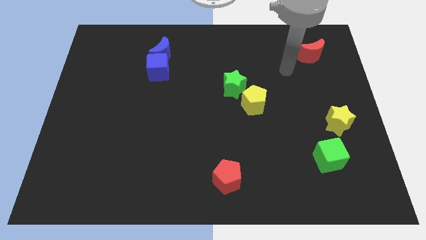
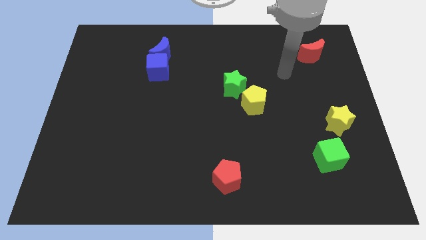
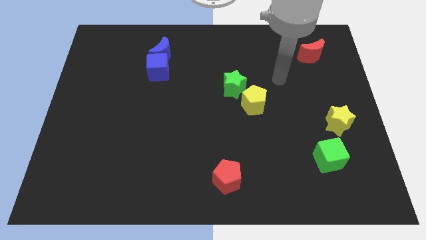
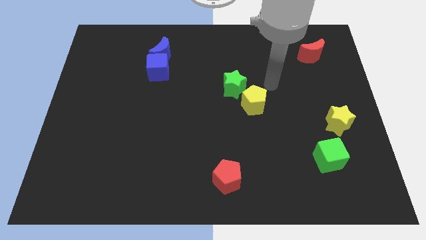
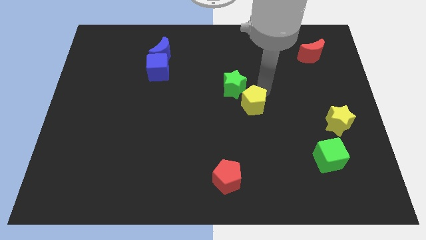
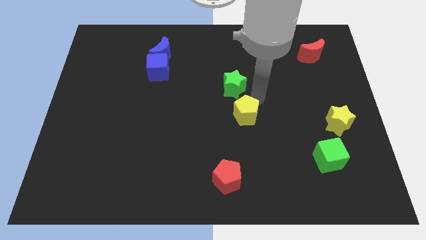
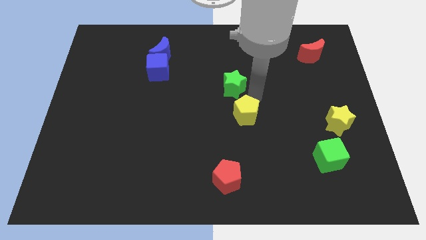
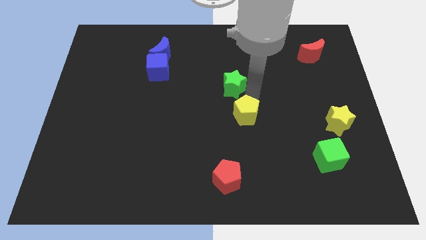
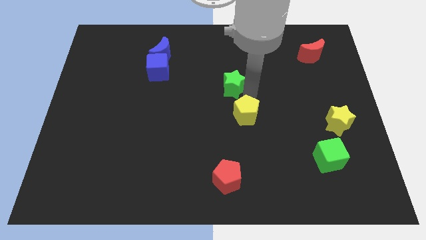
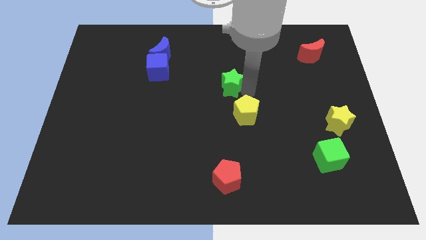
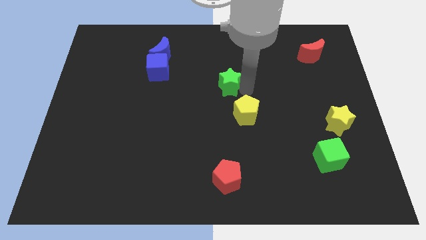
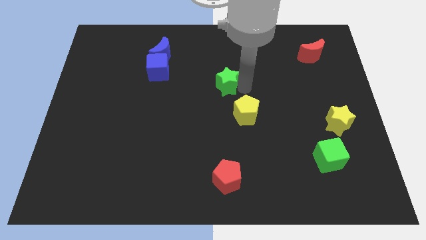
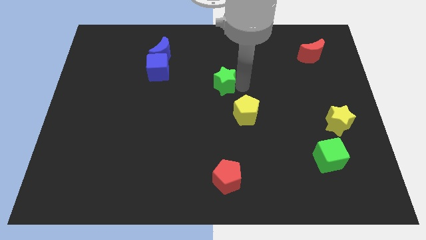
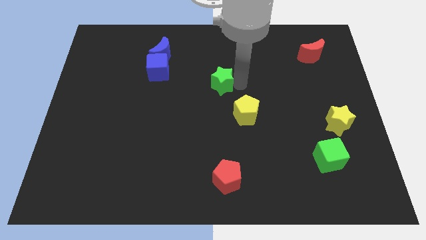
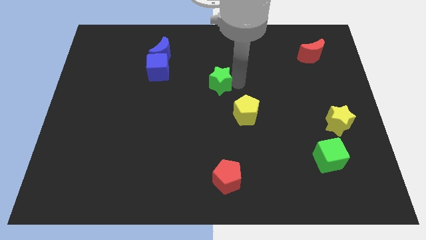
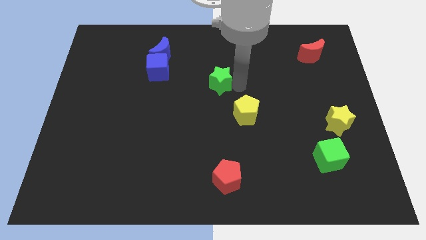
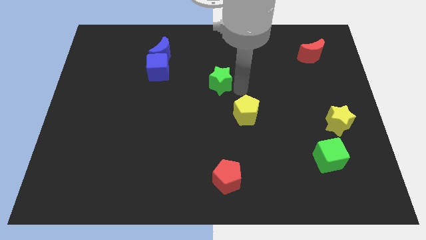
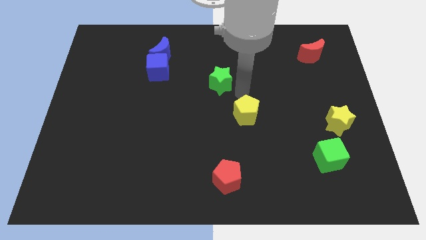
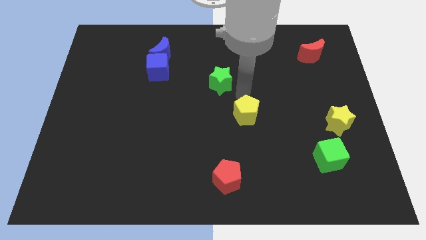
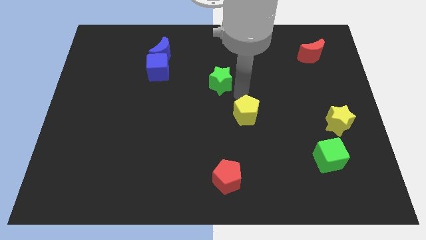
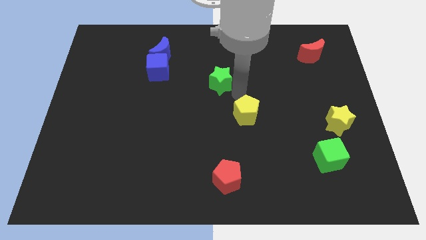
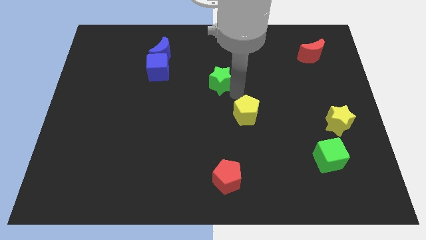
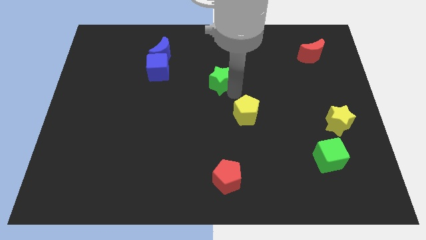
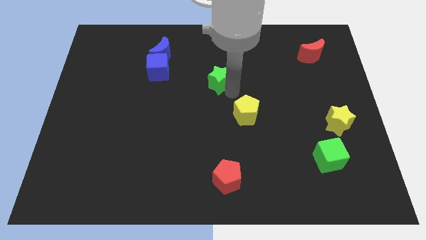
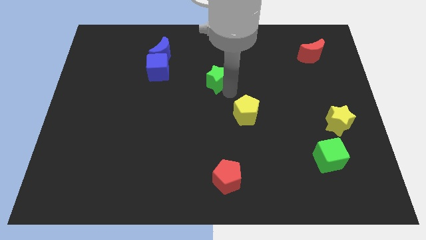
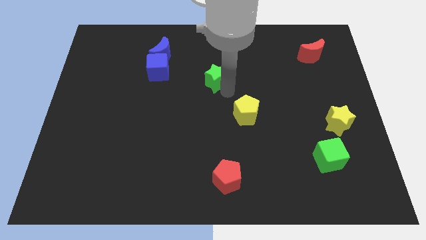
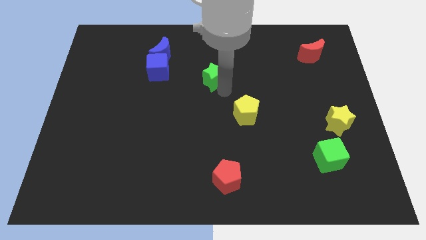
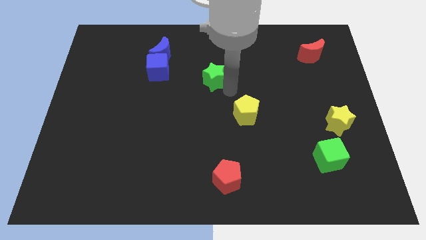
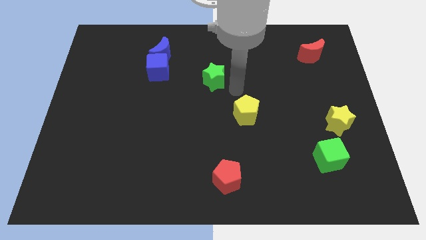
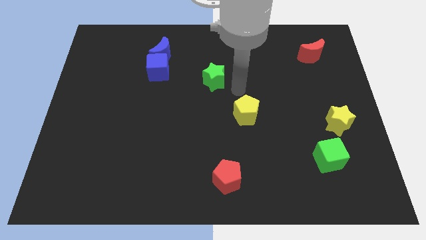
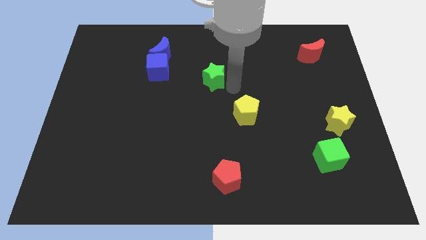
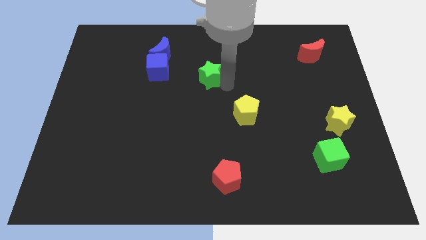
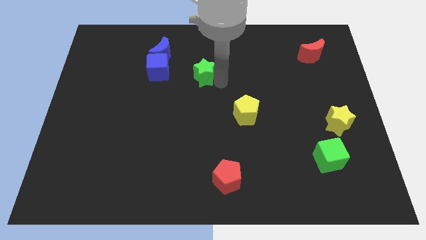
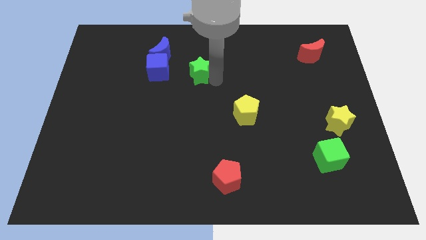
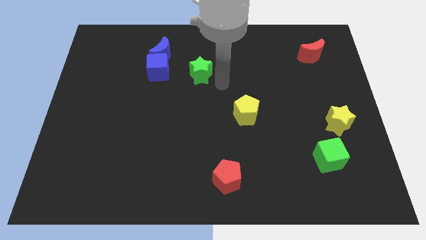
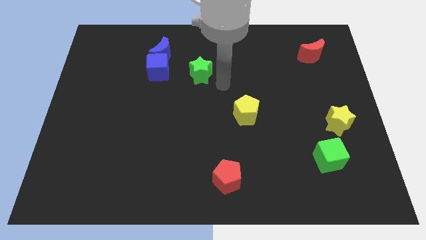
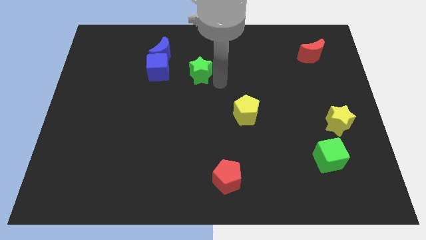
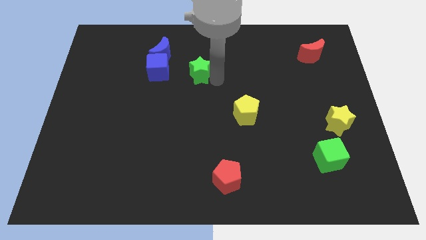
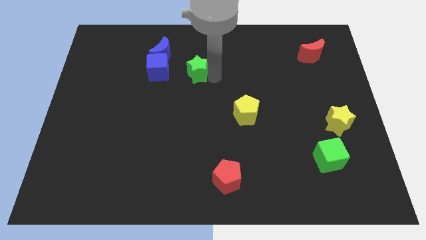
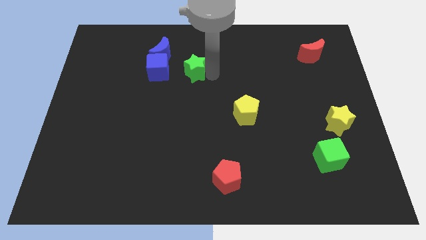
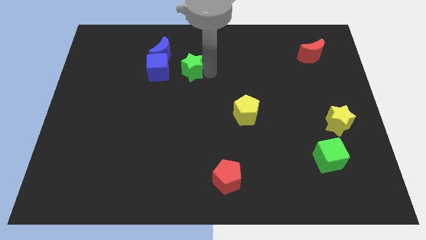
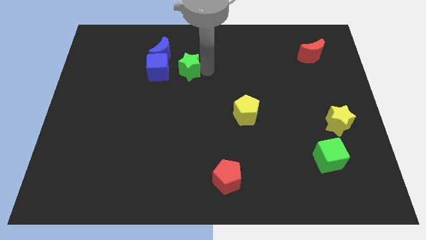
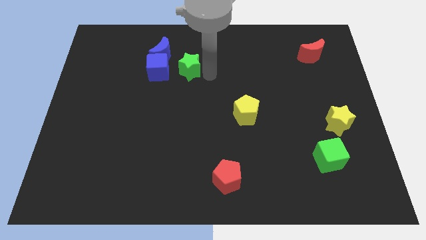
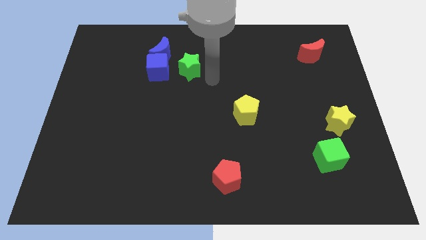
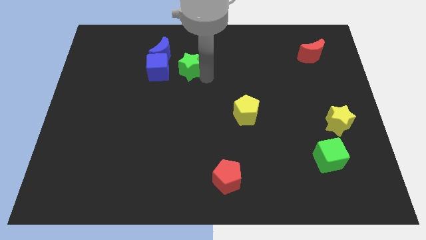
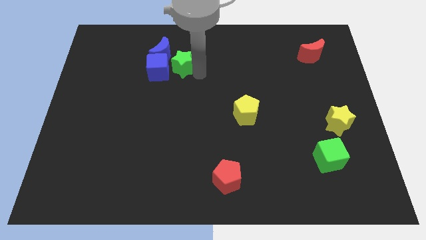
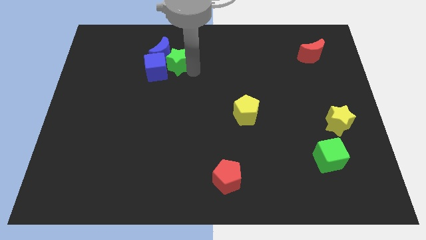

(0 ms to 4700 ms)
move the green star towards the blue moon

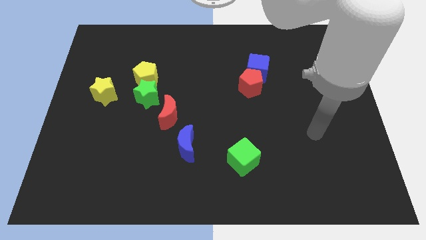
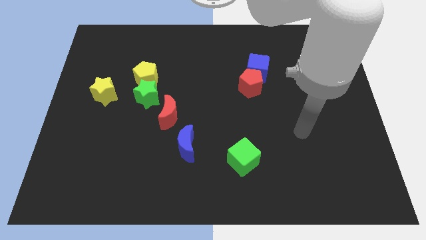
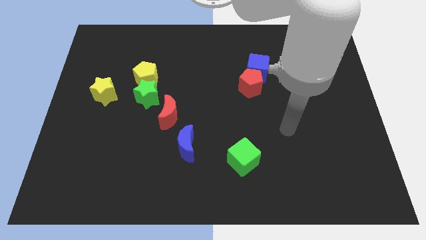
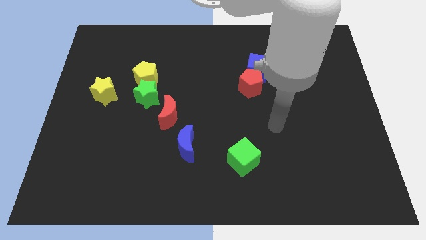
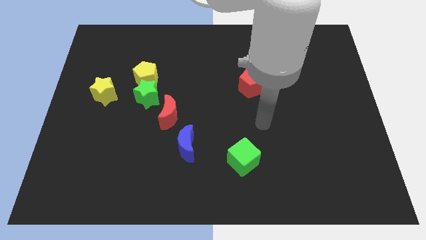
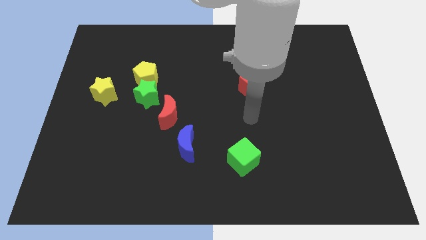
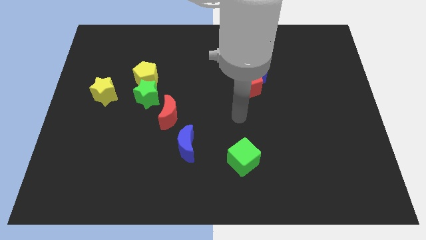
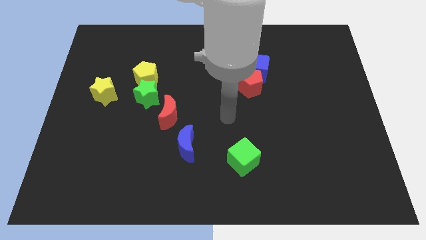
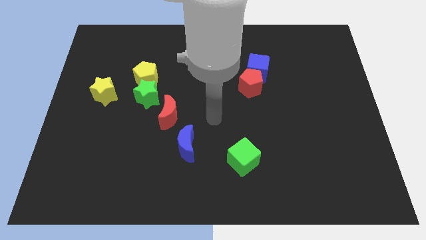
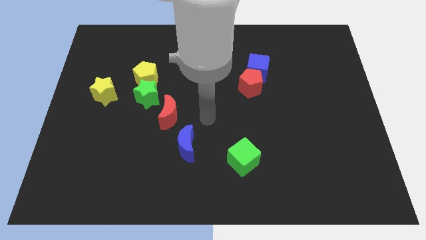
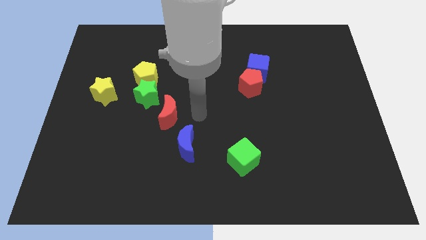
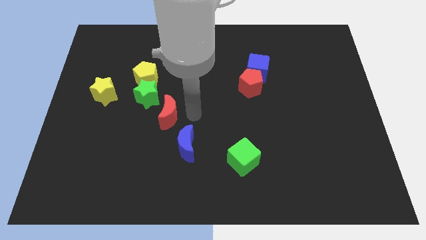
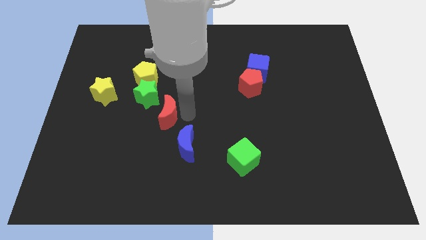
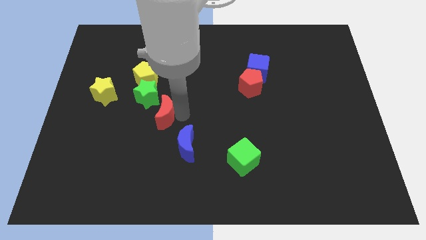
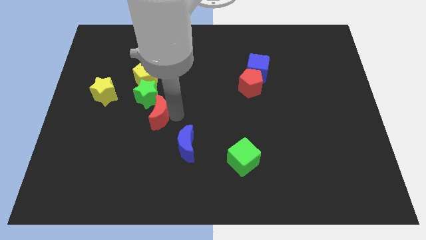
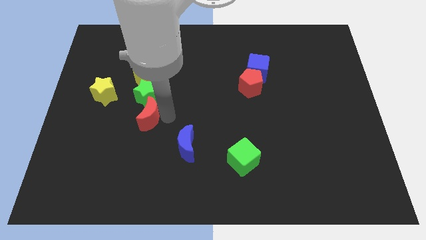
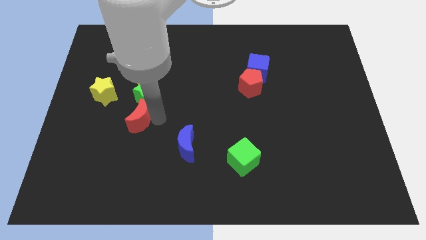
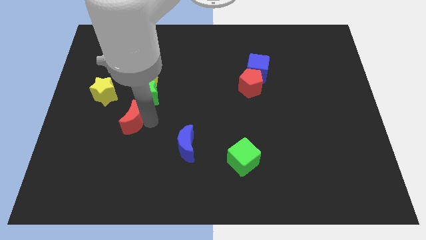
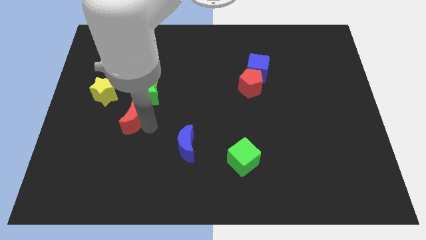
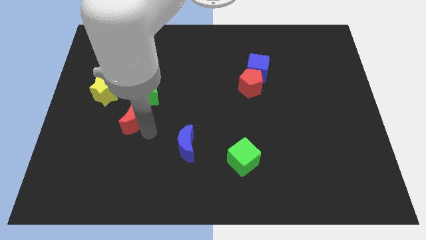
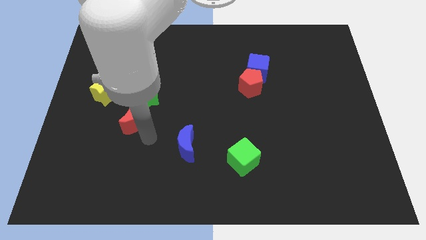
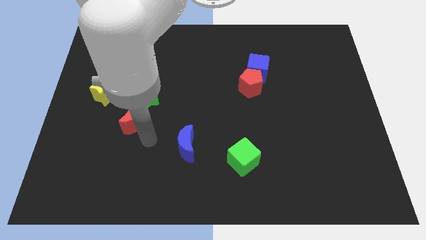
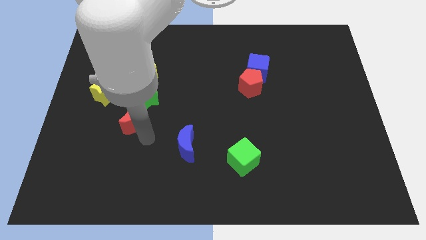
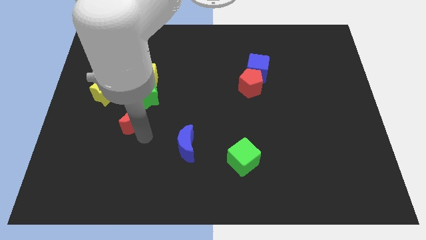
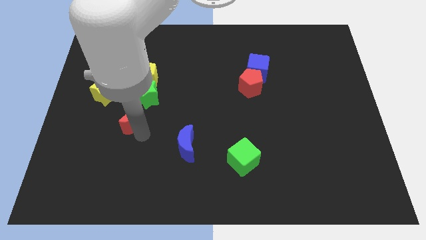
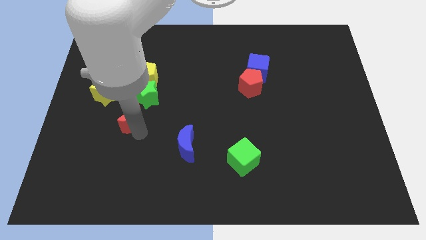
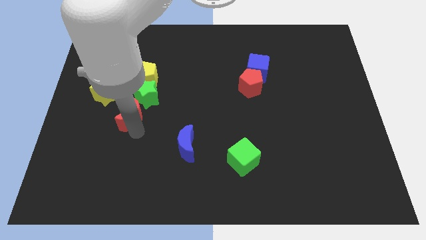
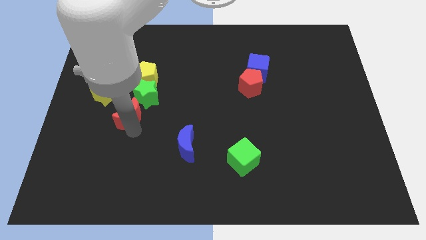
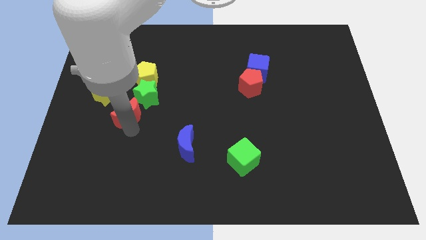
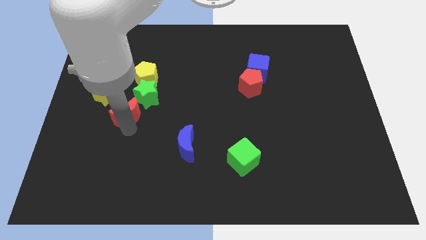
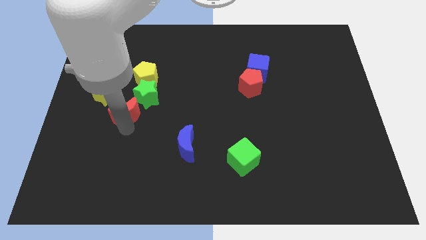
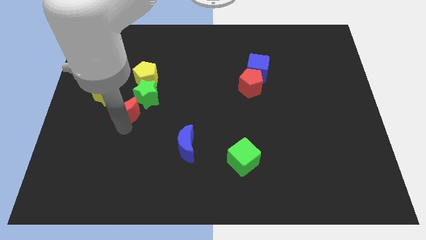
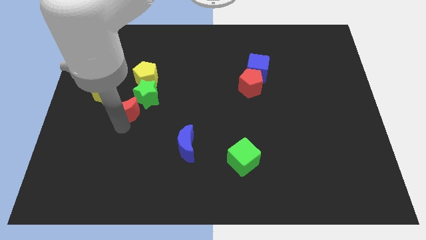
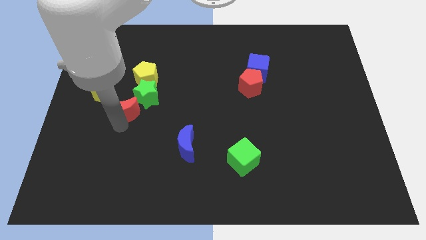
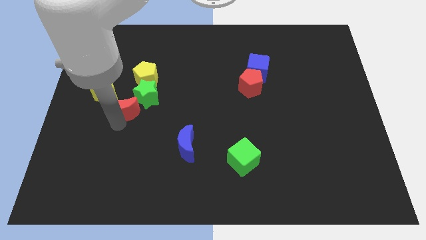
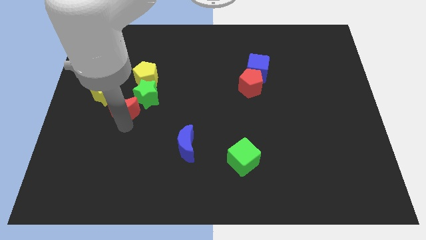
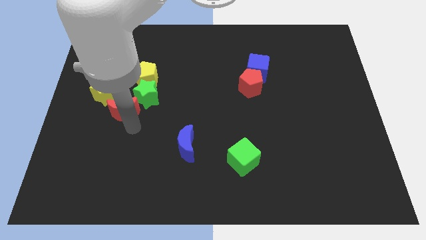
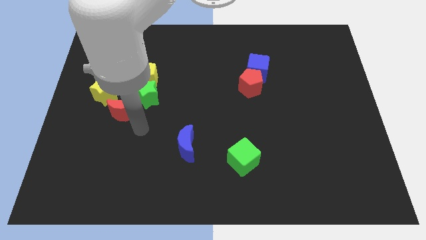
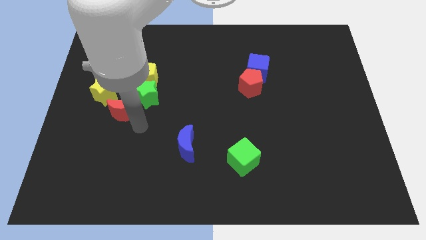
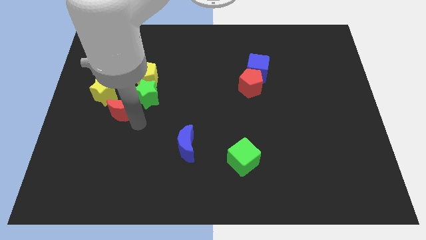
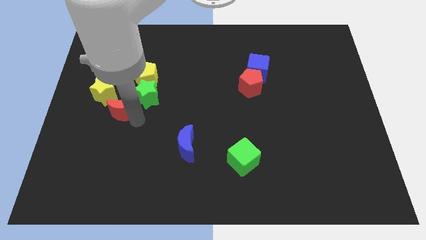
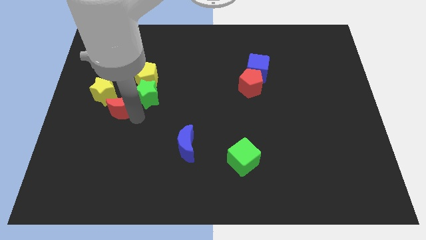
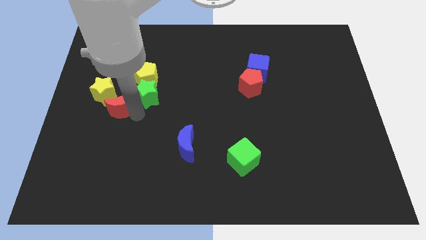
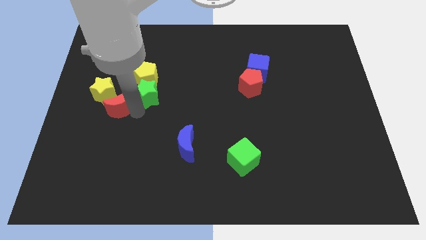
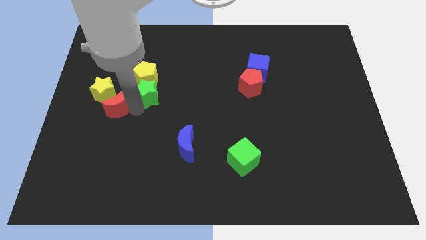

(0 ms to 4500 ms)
push the red moon next to the yellow star
